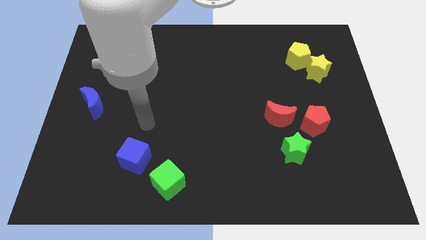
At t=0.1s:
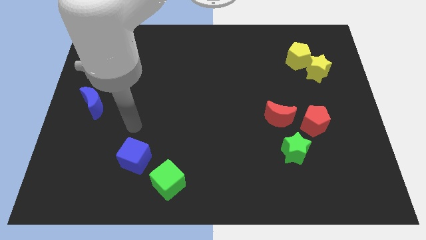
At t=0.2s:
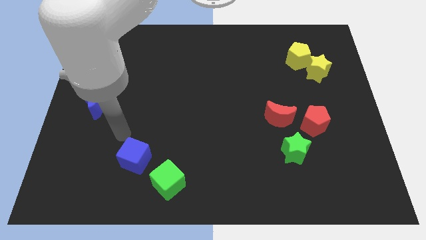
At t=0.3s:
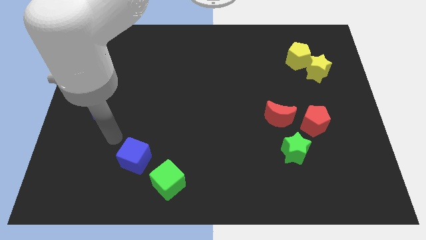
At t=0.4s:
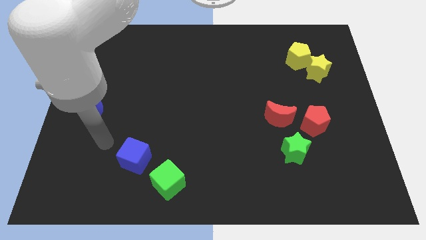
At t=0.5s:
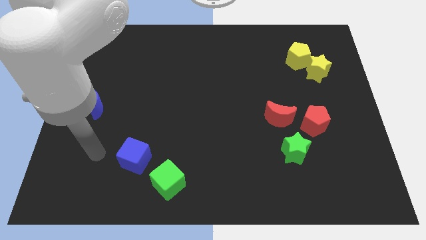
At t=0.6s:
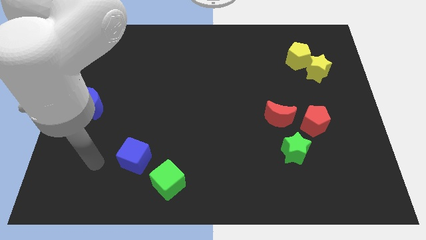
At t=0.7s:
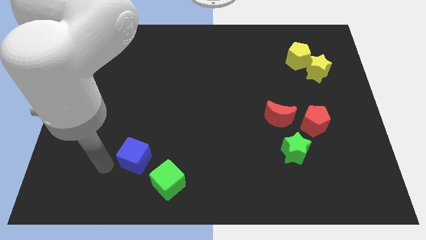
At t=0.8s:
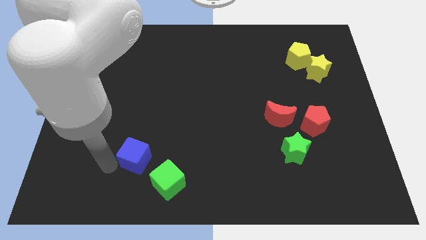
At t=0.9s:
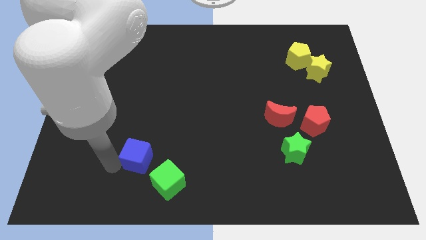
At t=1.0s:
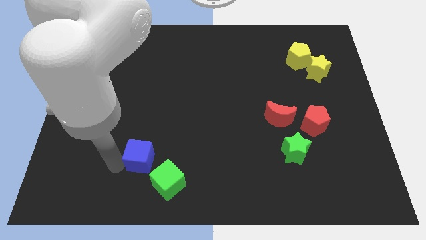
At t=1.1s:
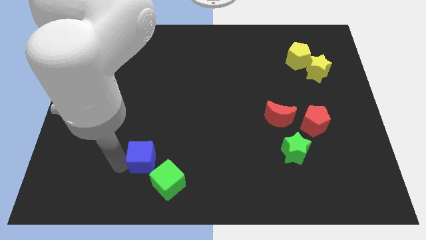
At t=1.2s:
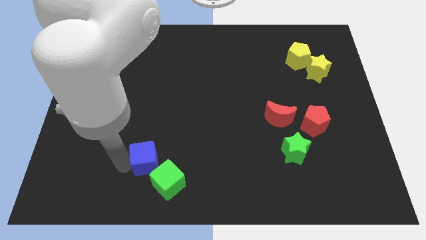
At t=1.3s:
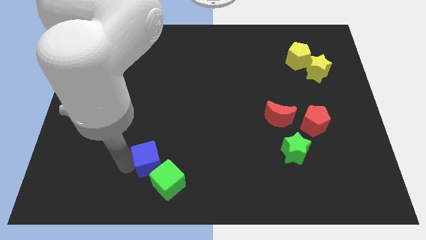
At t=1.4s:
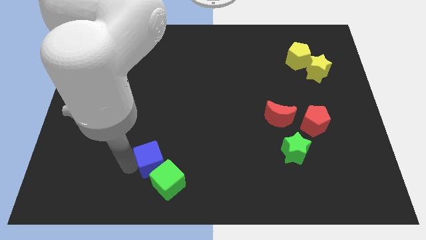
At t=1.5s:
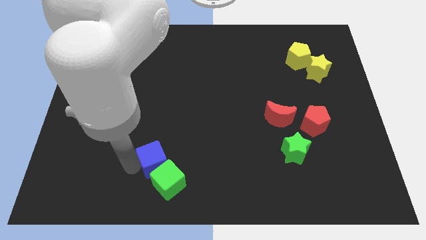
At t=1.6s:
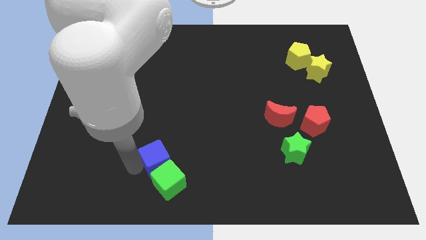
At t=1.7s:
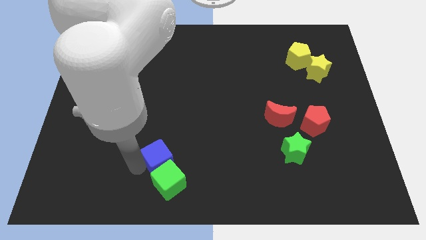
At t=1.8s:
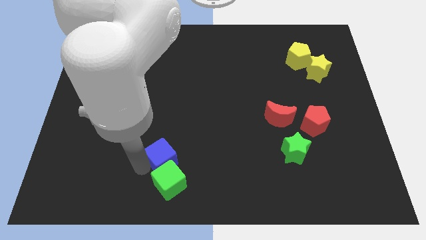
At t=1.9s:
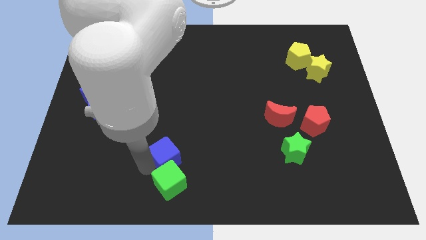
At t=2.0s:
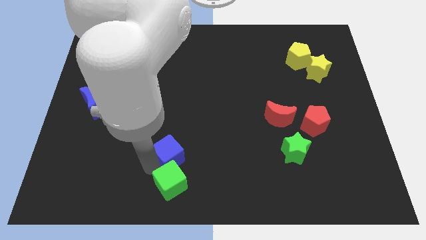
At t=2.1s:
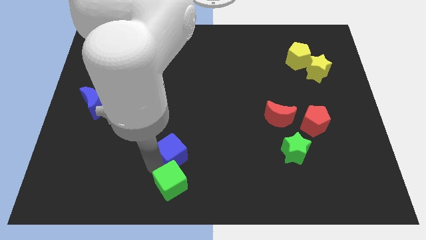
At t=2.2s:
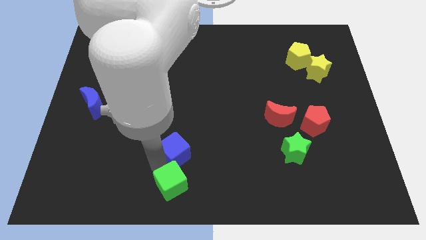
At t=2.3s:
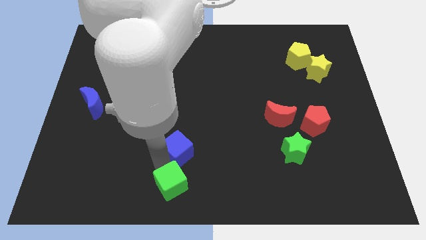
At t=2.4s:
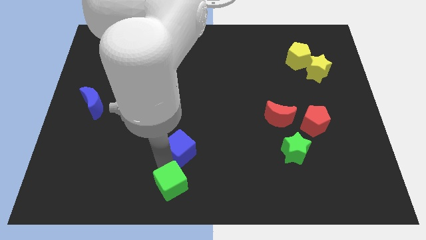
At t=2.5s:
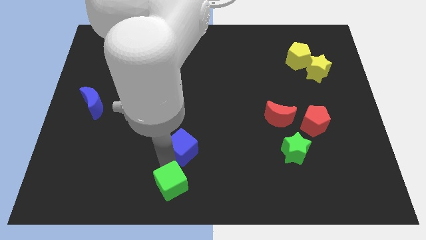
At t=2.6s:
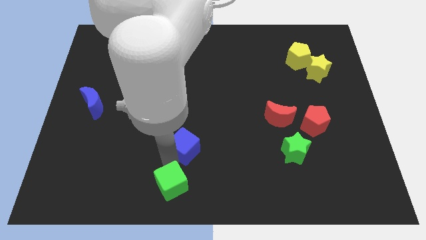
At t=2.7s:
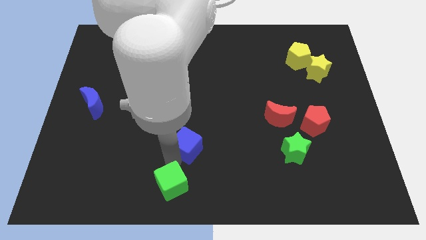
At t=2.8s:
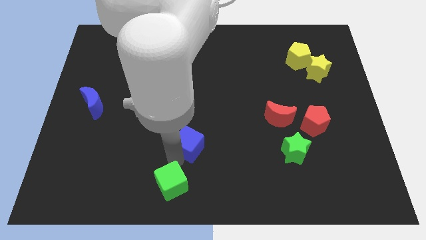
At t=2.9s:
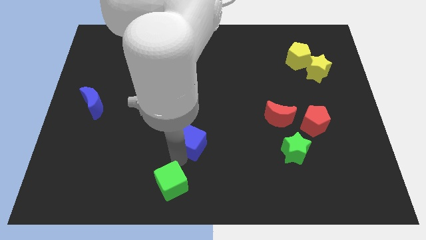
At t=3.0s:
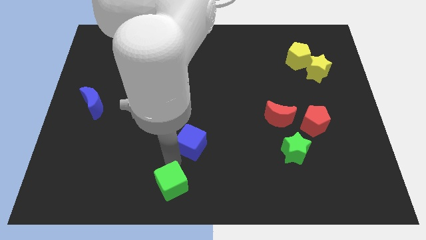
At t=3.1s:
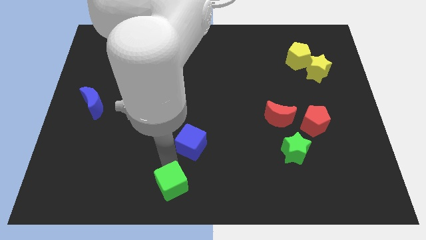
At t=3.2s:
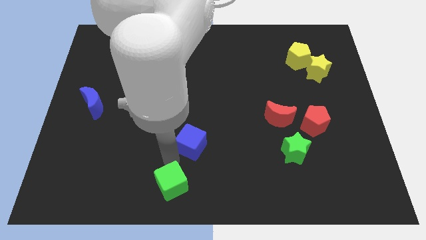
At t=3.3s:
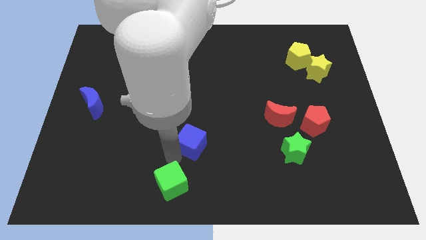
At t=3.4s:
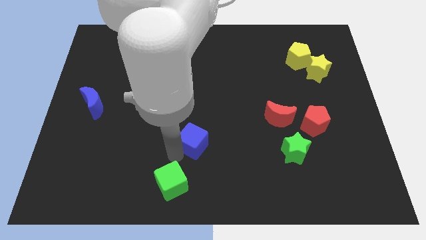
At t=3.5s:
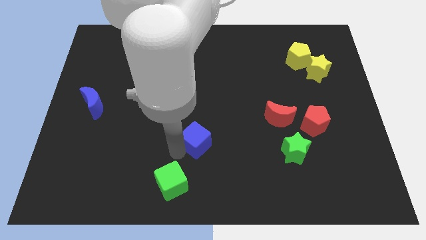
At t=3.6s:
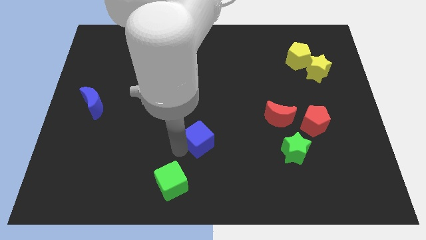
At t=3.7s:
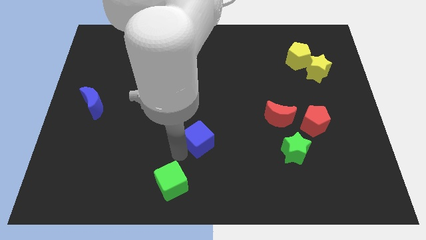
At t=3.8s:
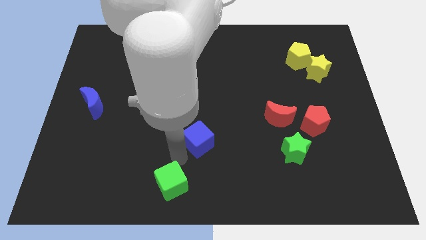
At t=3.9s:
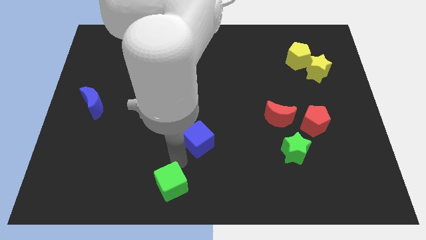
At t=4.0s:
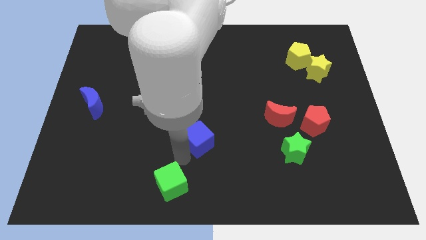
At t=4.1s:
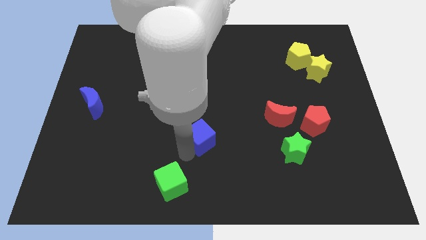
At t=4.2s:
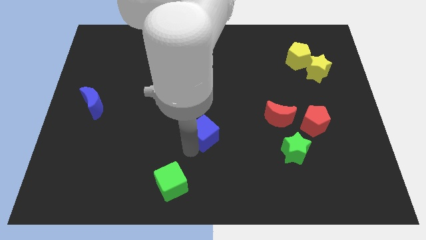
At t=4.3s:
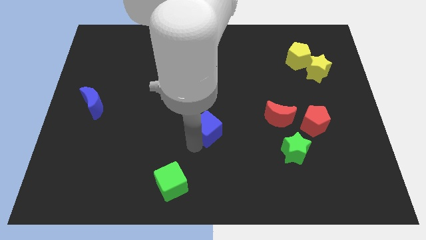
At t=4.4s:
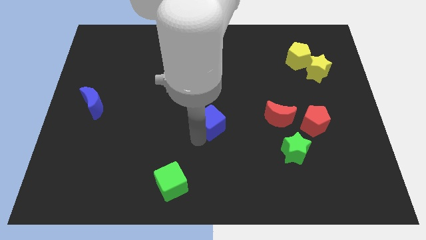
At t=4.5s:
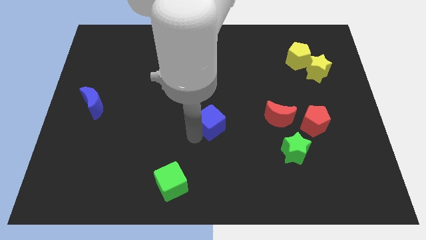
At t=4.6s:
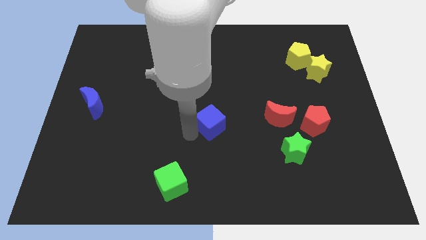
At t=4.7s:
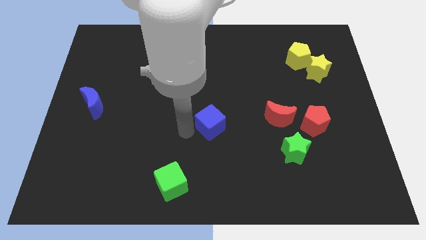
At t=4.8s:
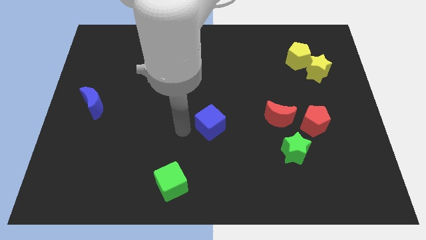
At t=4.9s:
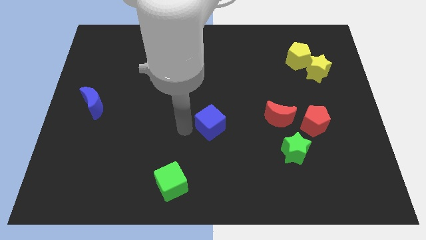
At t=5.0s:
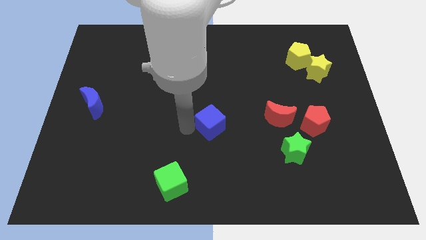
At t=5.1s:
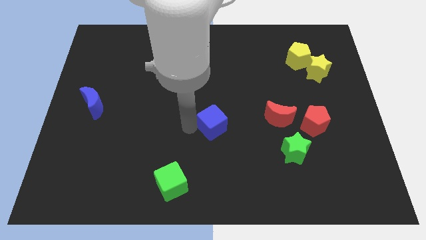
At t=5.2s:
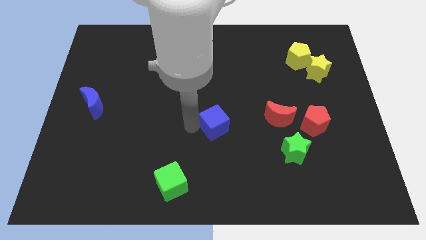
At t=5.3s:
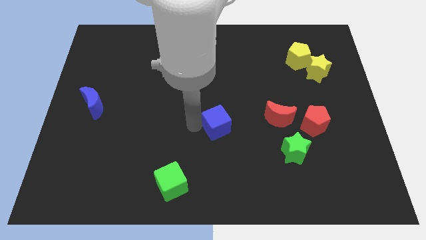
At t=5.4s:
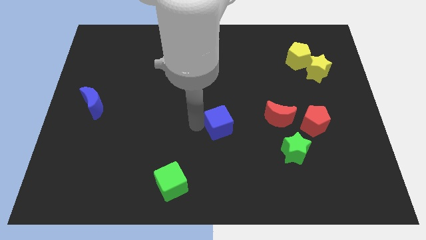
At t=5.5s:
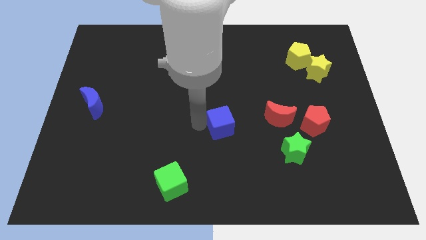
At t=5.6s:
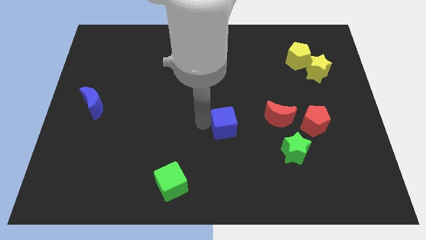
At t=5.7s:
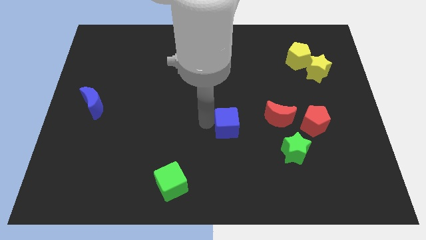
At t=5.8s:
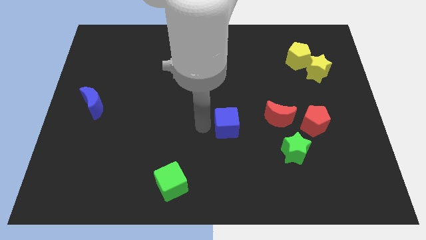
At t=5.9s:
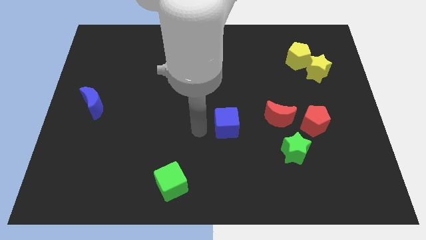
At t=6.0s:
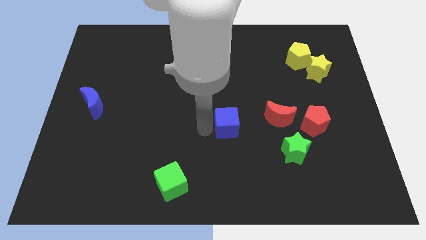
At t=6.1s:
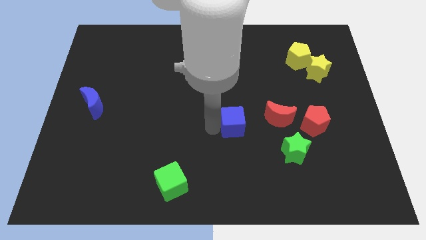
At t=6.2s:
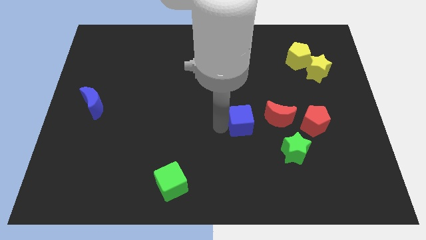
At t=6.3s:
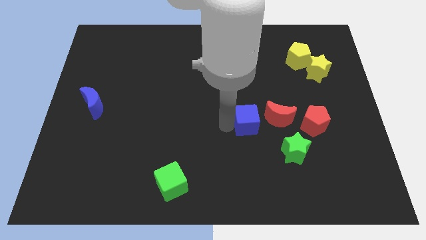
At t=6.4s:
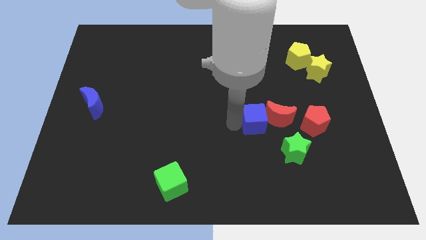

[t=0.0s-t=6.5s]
slide the blue cube next to the red moon

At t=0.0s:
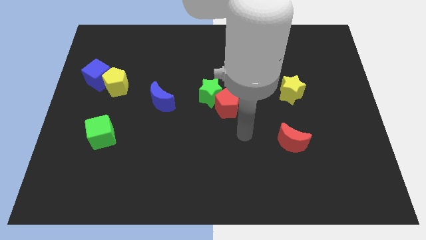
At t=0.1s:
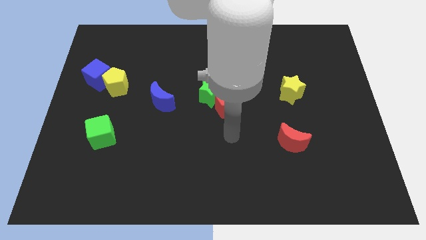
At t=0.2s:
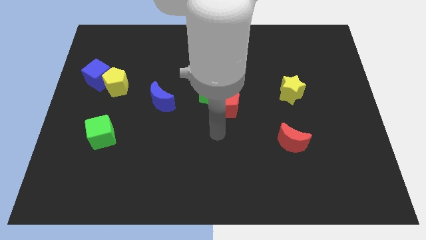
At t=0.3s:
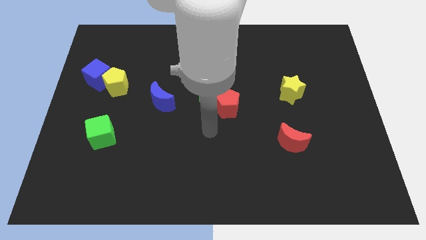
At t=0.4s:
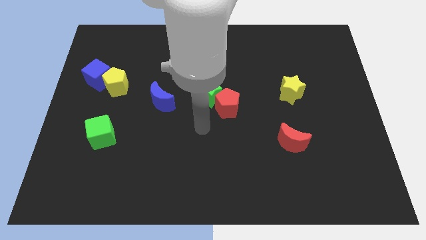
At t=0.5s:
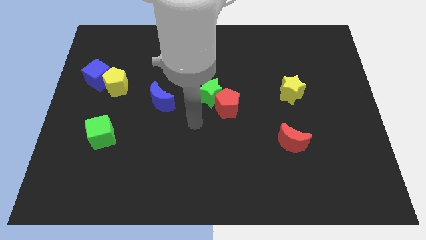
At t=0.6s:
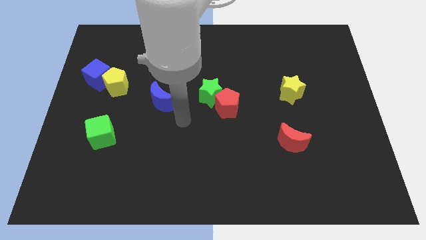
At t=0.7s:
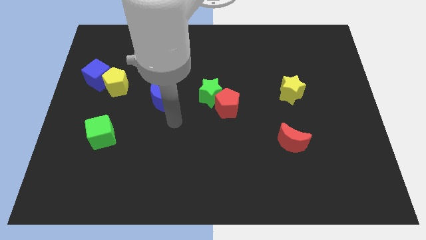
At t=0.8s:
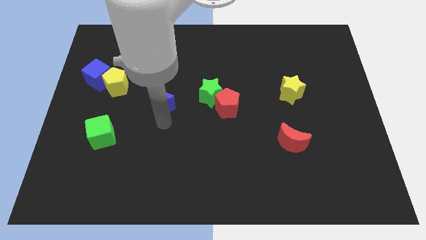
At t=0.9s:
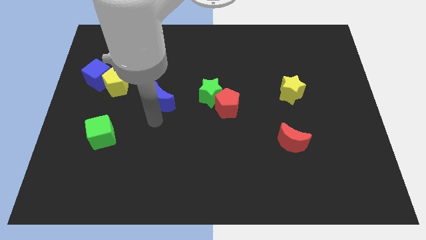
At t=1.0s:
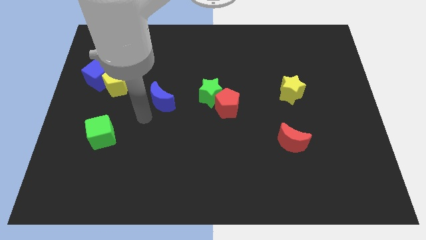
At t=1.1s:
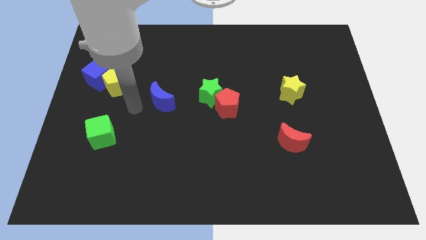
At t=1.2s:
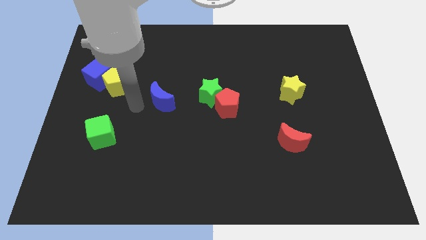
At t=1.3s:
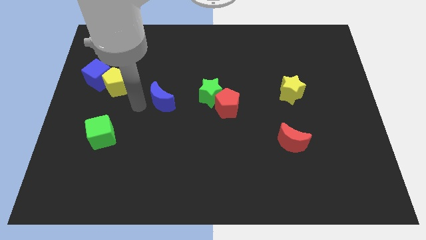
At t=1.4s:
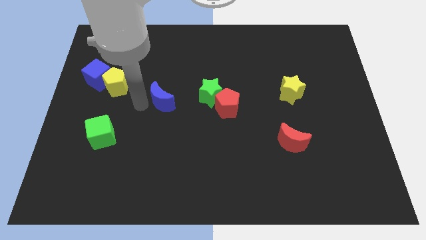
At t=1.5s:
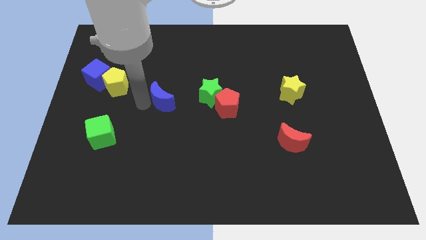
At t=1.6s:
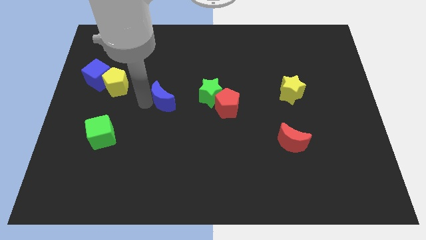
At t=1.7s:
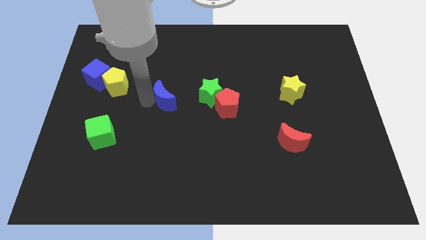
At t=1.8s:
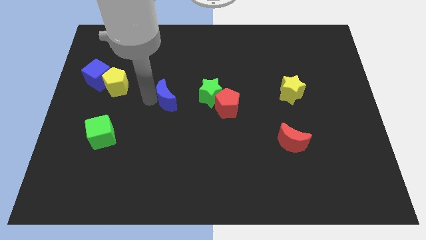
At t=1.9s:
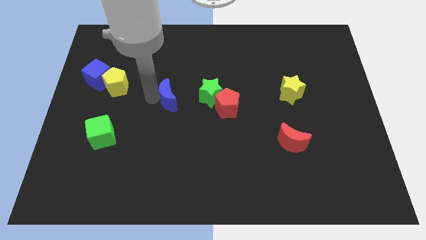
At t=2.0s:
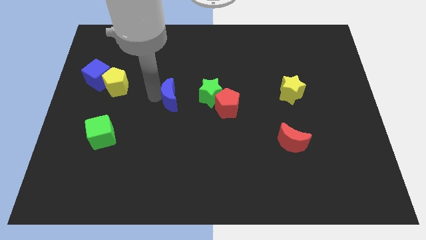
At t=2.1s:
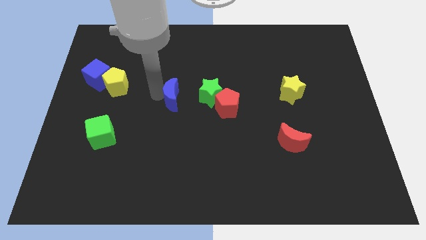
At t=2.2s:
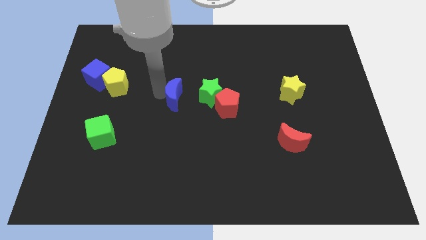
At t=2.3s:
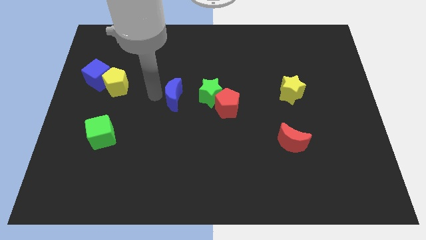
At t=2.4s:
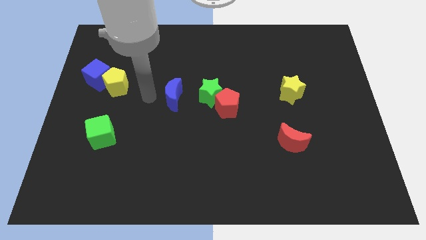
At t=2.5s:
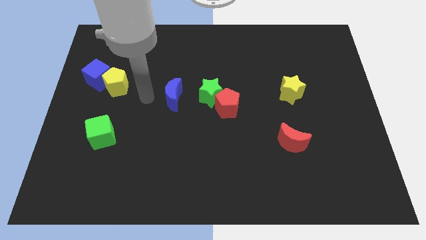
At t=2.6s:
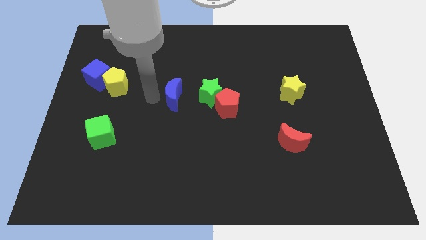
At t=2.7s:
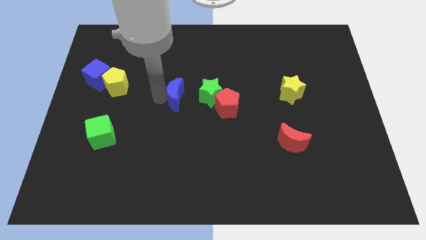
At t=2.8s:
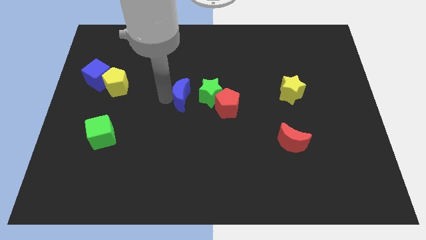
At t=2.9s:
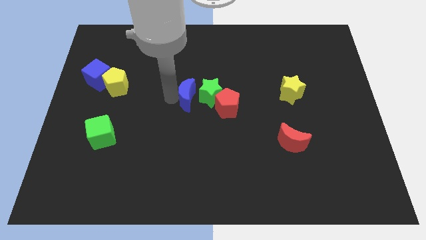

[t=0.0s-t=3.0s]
push the blue moon towards the green star
